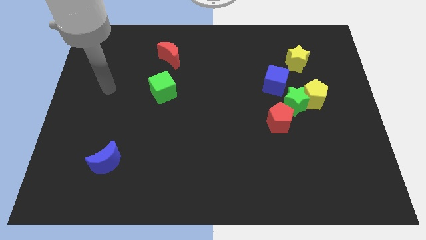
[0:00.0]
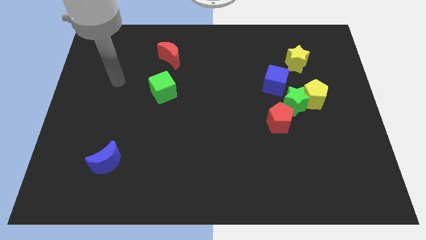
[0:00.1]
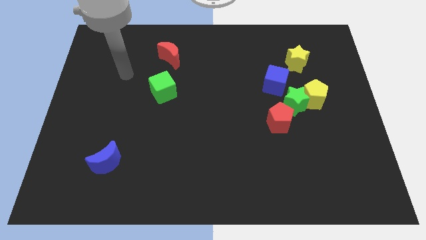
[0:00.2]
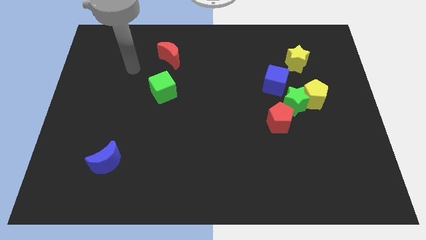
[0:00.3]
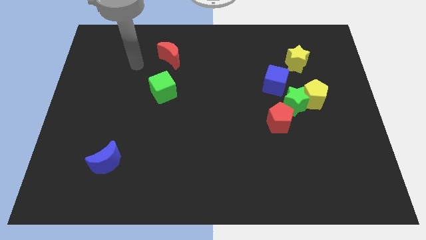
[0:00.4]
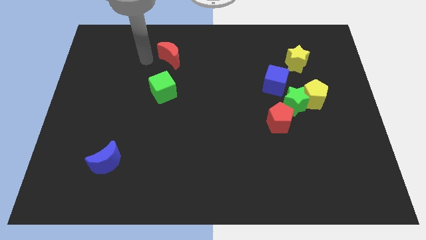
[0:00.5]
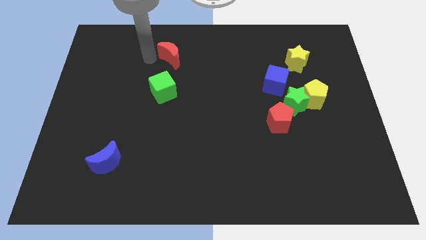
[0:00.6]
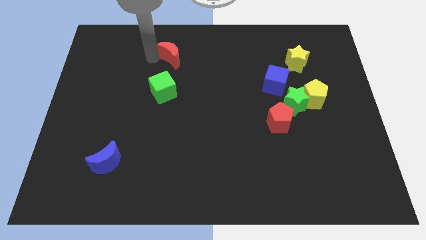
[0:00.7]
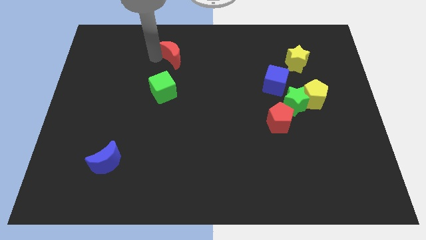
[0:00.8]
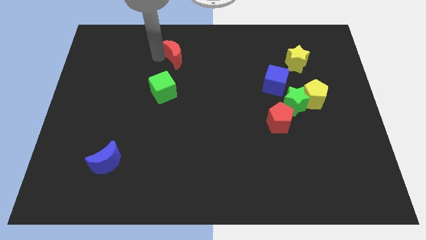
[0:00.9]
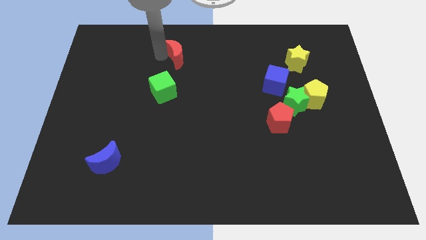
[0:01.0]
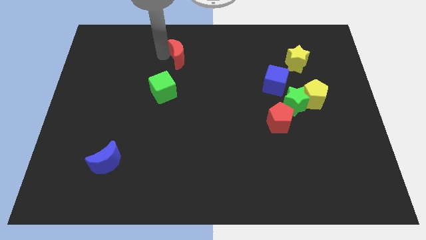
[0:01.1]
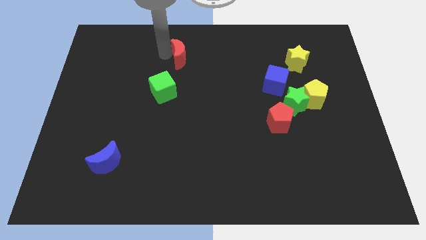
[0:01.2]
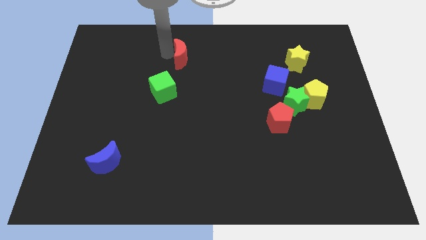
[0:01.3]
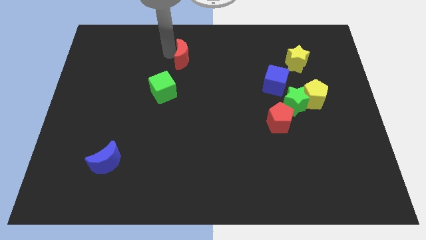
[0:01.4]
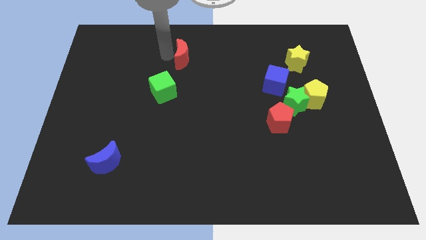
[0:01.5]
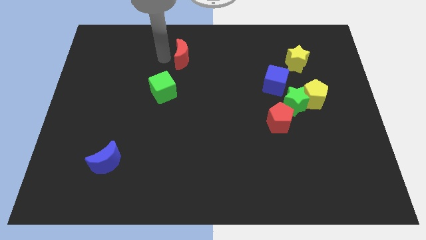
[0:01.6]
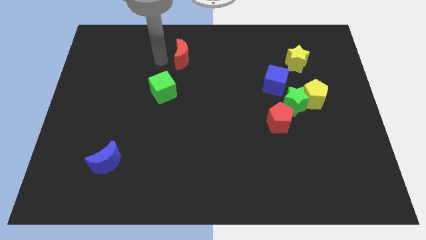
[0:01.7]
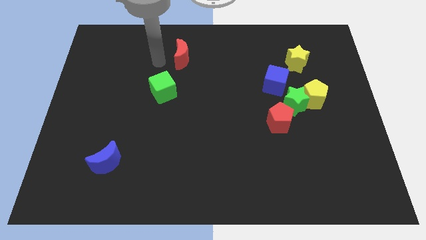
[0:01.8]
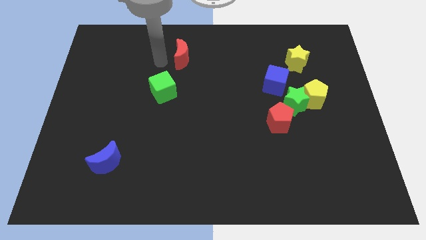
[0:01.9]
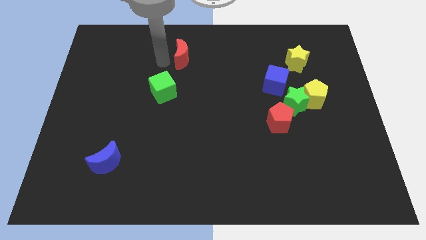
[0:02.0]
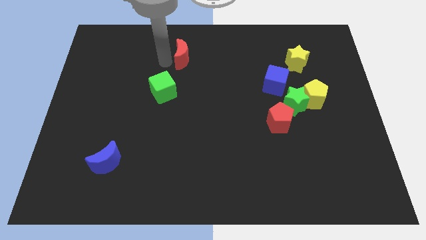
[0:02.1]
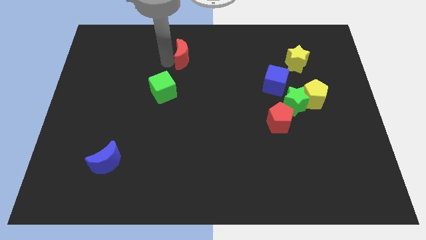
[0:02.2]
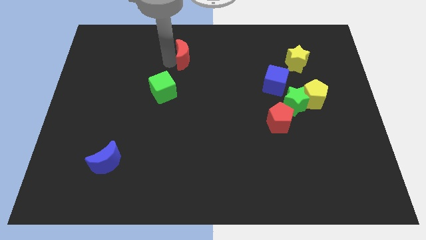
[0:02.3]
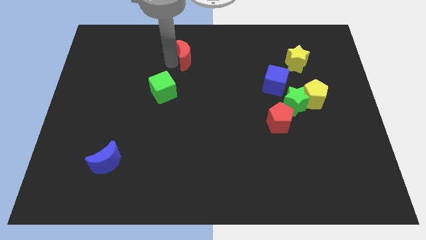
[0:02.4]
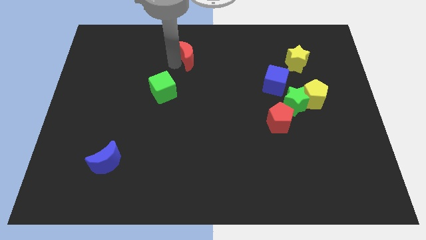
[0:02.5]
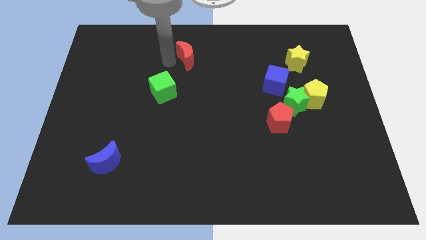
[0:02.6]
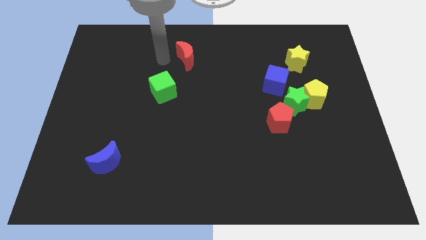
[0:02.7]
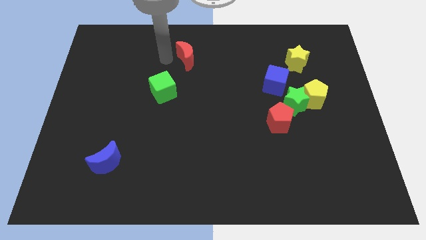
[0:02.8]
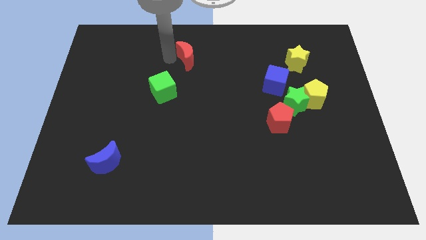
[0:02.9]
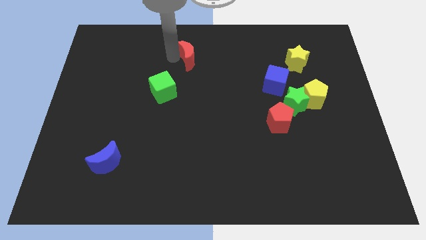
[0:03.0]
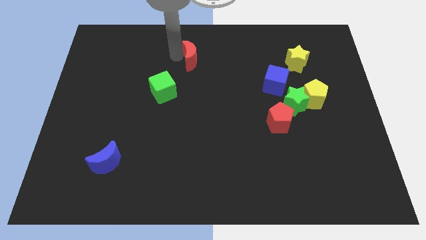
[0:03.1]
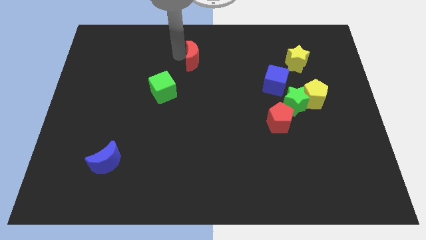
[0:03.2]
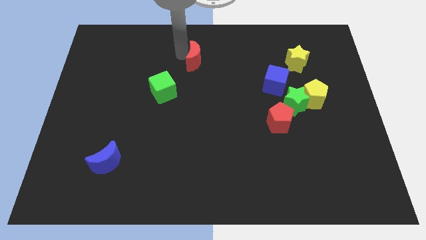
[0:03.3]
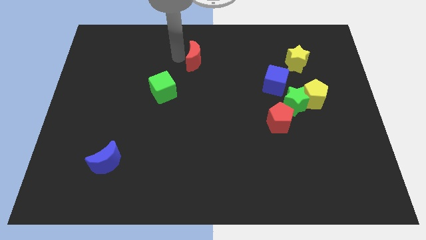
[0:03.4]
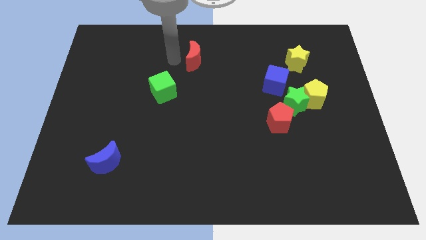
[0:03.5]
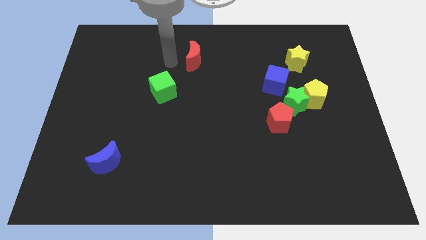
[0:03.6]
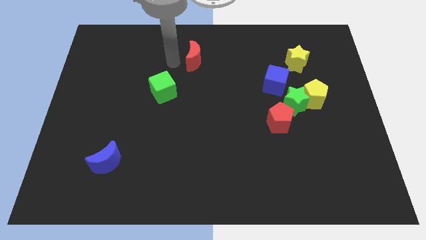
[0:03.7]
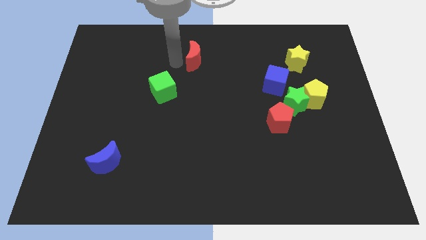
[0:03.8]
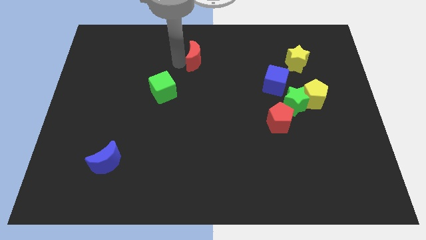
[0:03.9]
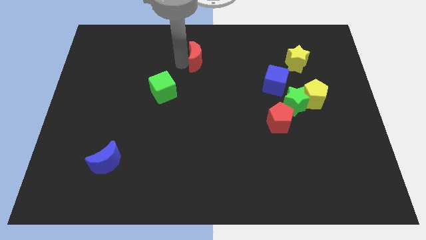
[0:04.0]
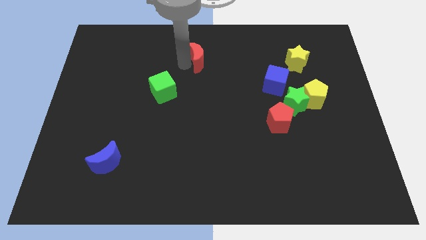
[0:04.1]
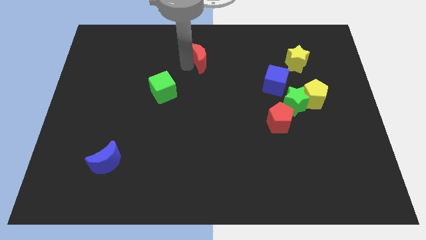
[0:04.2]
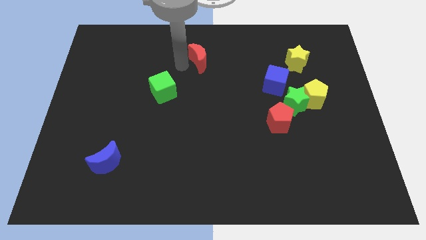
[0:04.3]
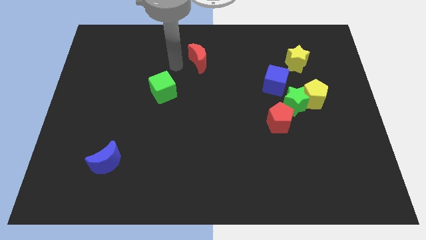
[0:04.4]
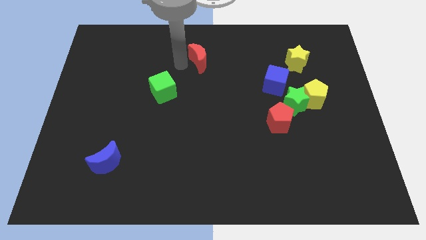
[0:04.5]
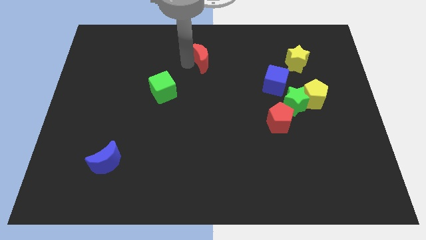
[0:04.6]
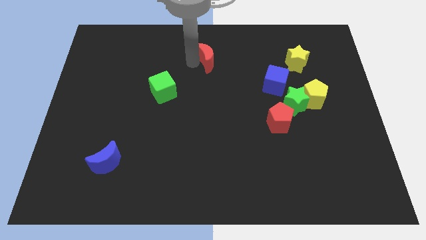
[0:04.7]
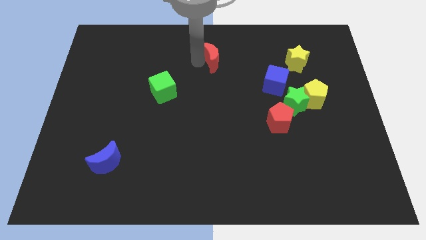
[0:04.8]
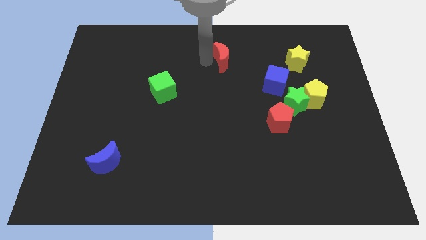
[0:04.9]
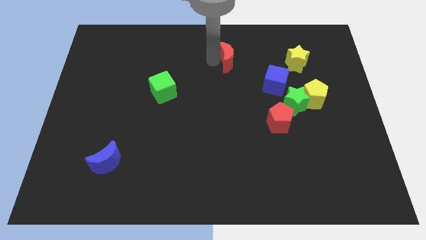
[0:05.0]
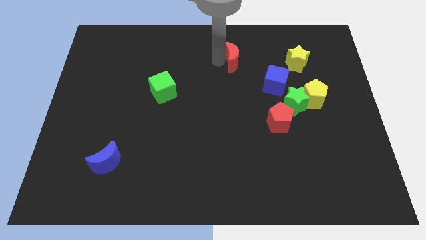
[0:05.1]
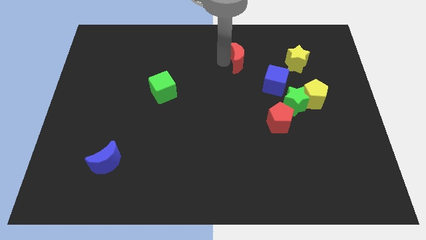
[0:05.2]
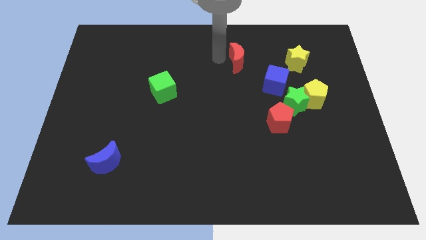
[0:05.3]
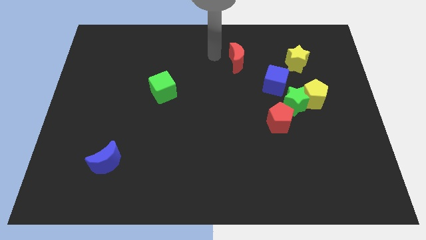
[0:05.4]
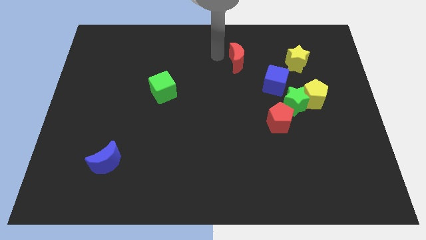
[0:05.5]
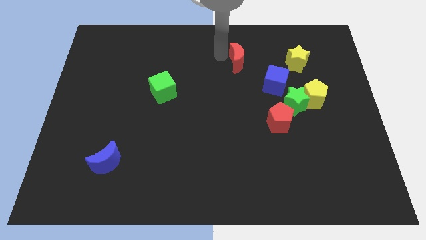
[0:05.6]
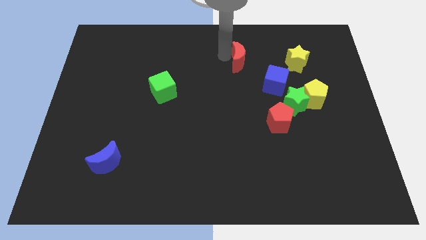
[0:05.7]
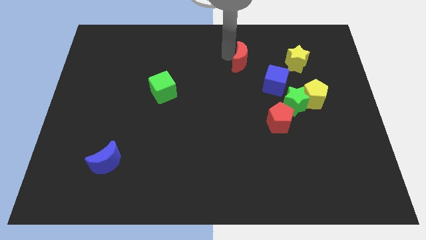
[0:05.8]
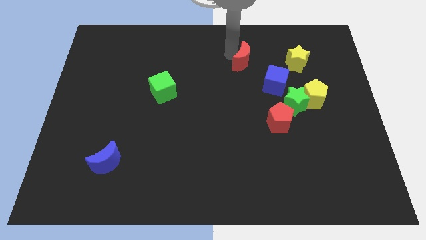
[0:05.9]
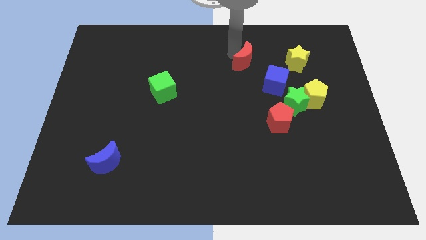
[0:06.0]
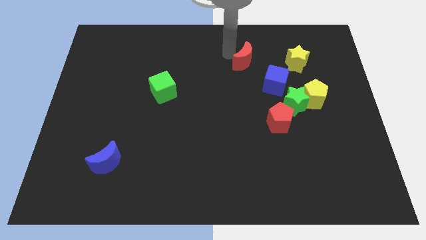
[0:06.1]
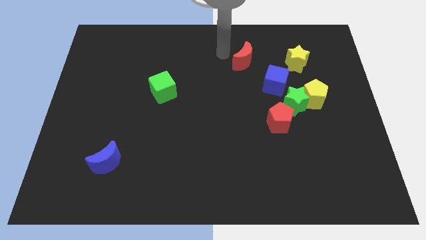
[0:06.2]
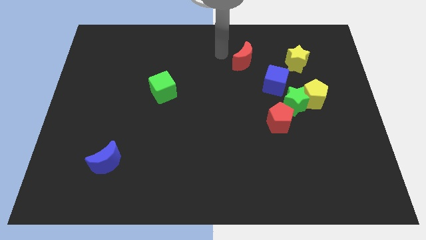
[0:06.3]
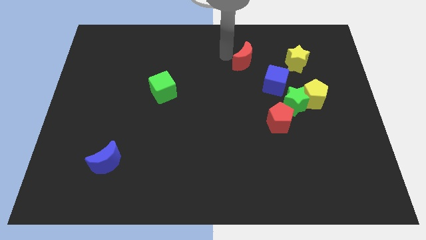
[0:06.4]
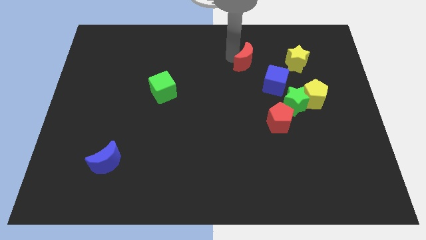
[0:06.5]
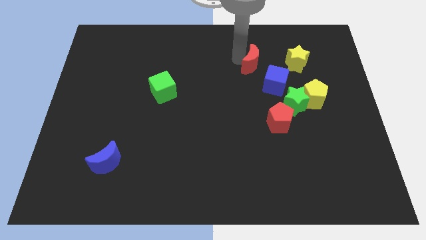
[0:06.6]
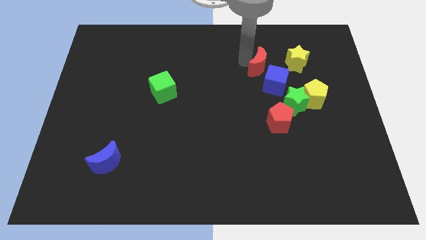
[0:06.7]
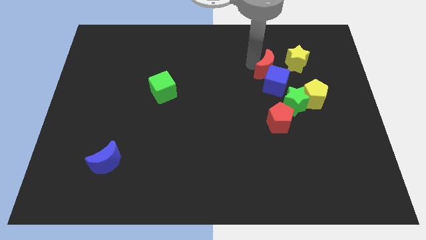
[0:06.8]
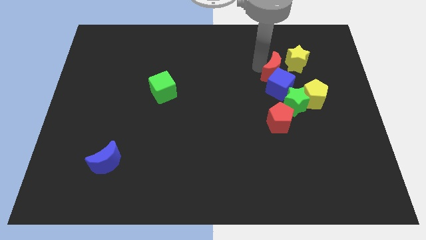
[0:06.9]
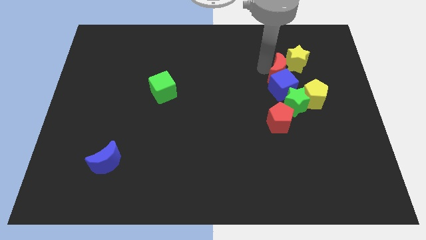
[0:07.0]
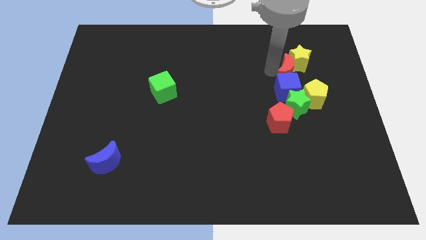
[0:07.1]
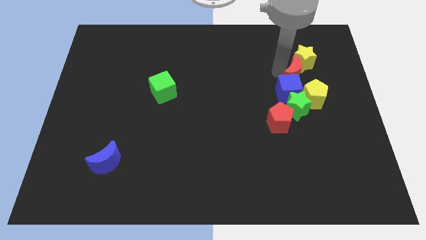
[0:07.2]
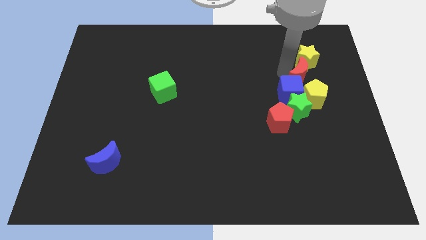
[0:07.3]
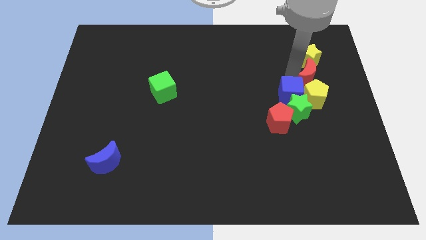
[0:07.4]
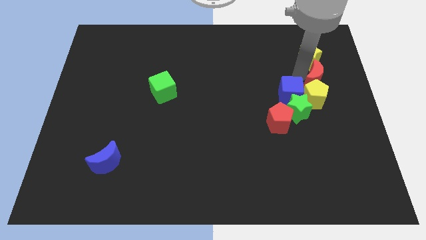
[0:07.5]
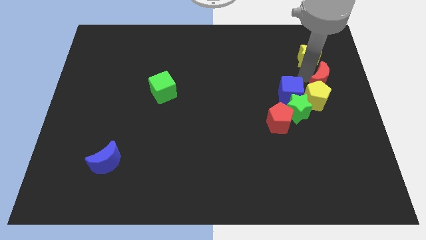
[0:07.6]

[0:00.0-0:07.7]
move the red moon to the center right

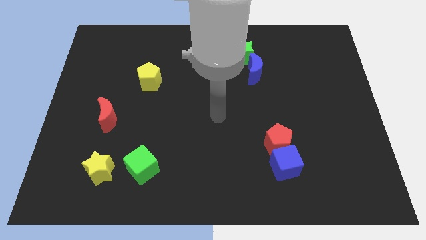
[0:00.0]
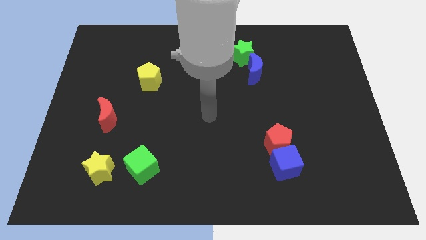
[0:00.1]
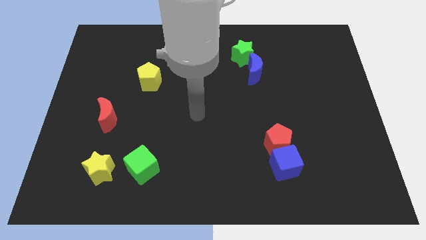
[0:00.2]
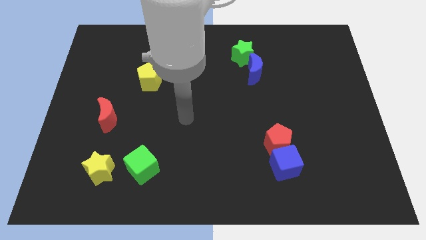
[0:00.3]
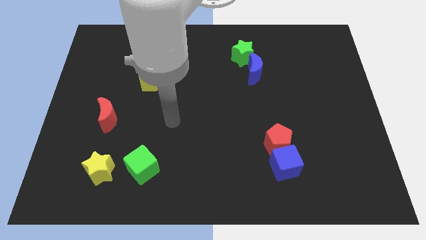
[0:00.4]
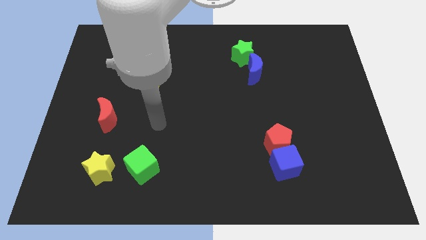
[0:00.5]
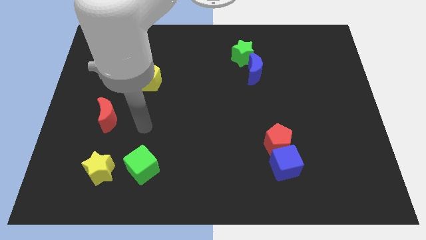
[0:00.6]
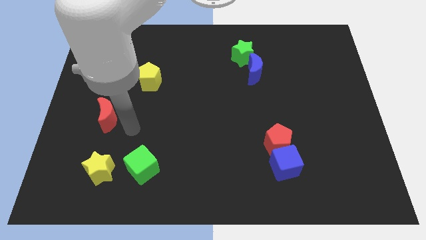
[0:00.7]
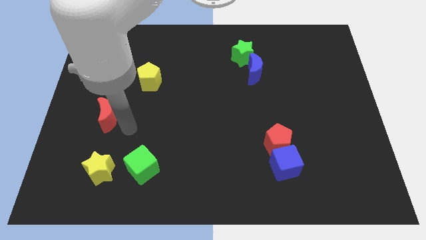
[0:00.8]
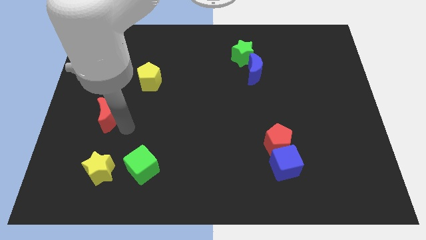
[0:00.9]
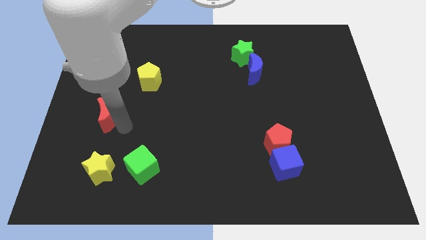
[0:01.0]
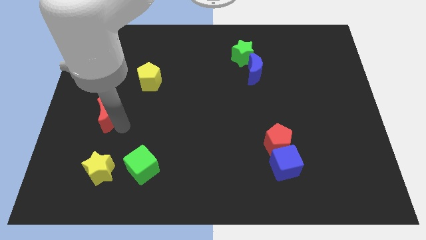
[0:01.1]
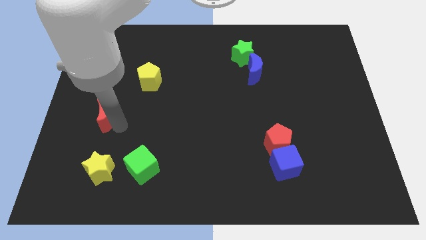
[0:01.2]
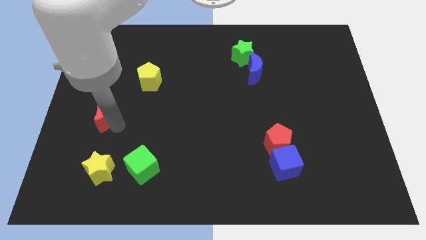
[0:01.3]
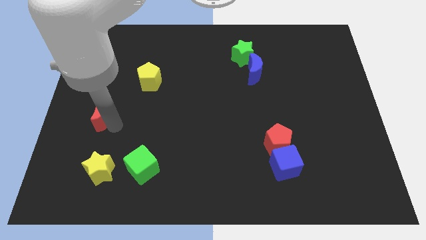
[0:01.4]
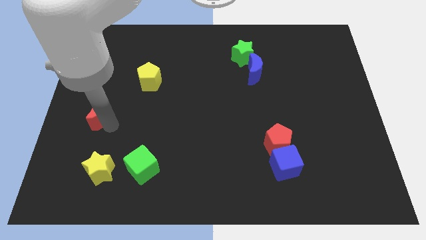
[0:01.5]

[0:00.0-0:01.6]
slide the red moon to the center left
